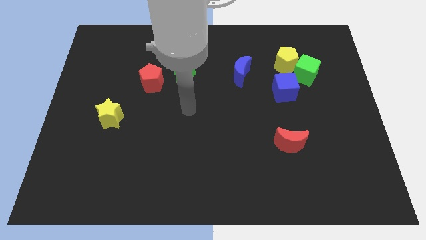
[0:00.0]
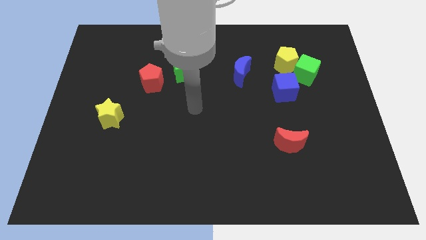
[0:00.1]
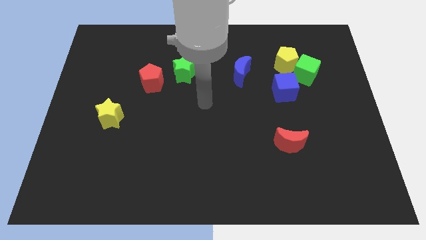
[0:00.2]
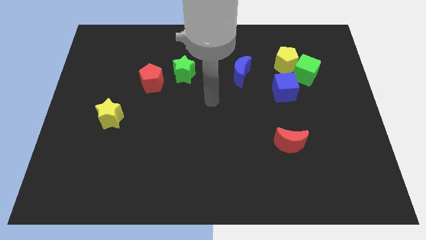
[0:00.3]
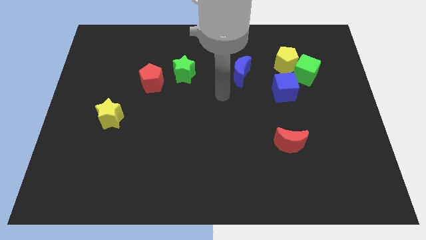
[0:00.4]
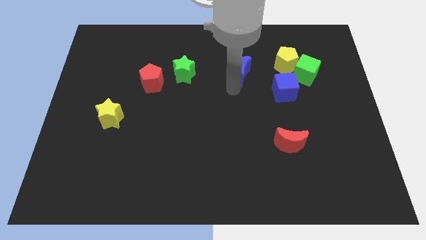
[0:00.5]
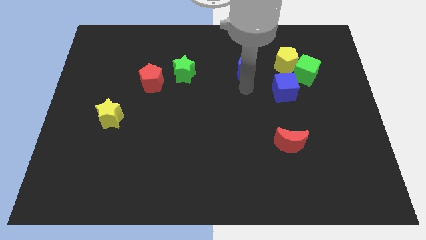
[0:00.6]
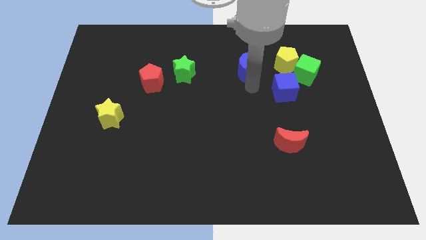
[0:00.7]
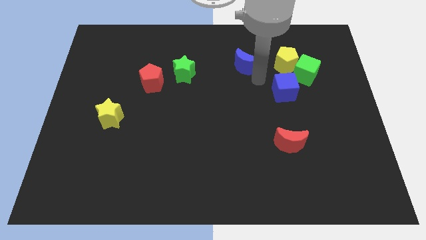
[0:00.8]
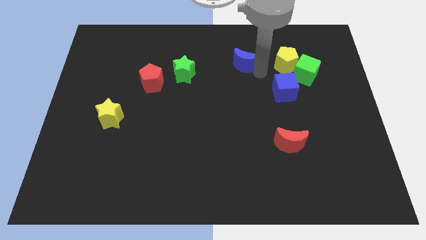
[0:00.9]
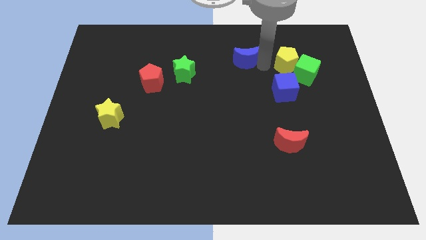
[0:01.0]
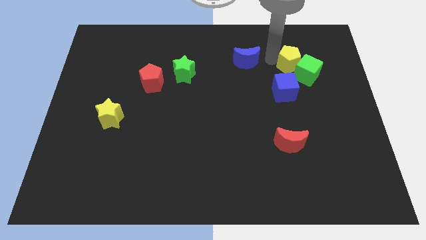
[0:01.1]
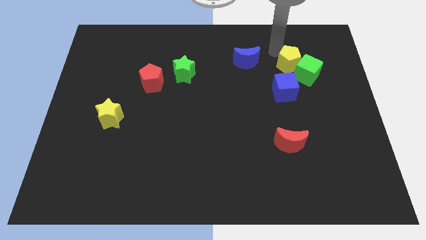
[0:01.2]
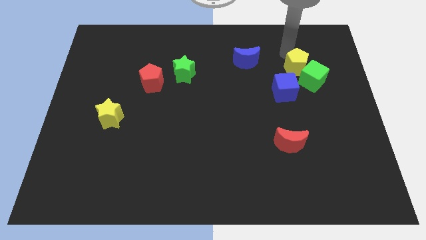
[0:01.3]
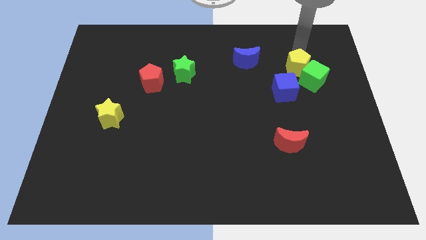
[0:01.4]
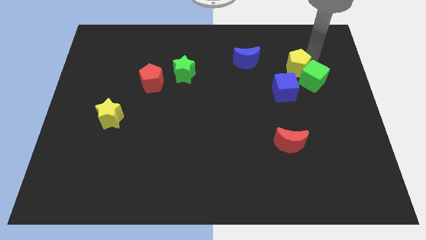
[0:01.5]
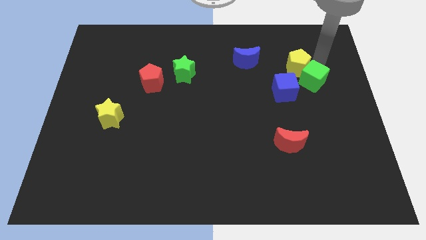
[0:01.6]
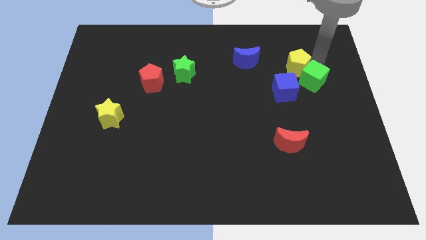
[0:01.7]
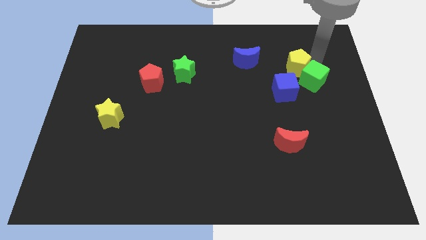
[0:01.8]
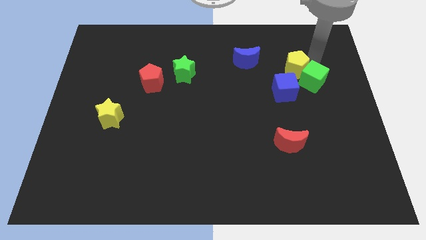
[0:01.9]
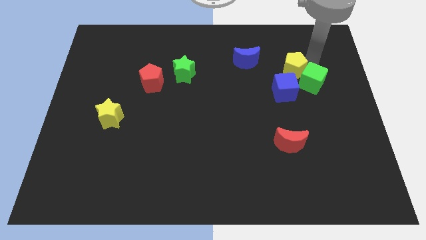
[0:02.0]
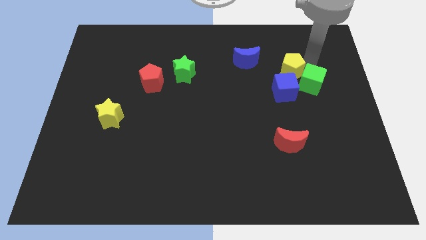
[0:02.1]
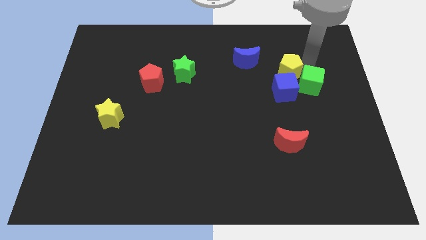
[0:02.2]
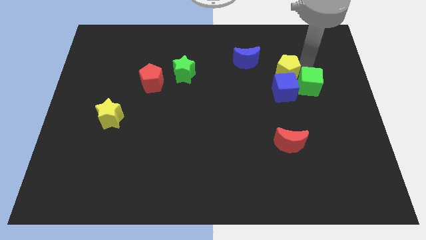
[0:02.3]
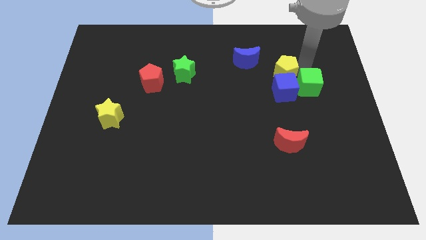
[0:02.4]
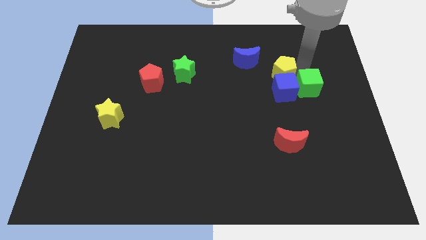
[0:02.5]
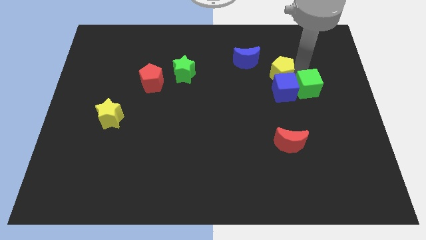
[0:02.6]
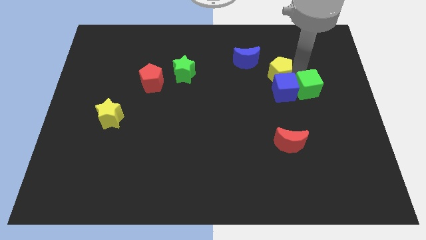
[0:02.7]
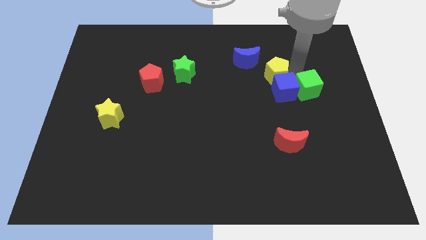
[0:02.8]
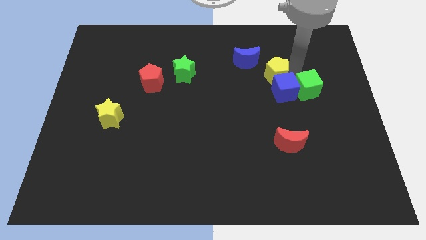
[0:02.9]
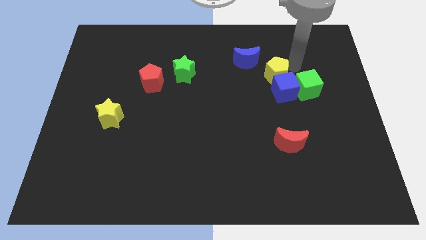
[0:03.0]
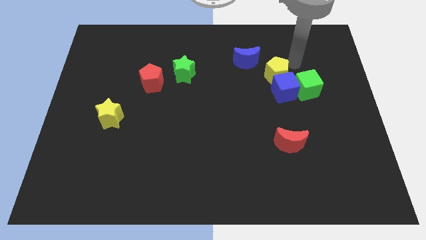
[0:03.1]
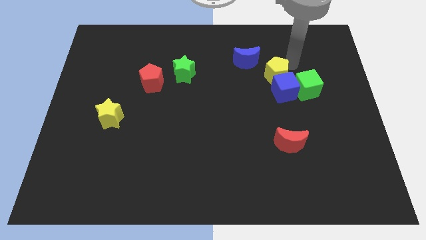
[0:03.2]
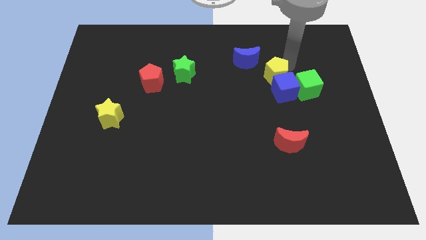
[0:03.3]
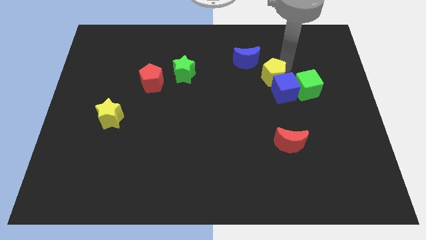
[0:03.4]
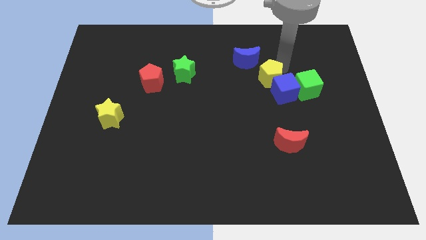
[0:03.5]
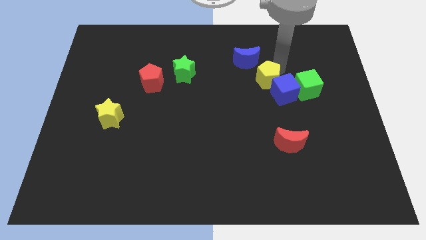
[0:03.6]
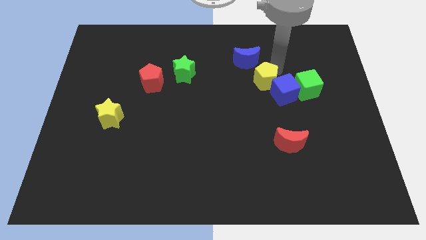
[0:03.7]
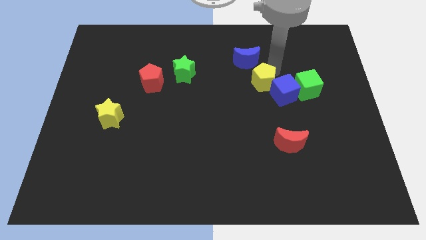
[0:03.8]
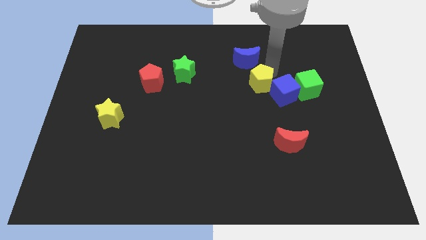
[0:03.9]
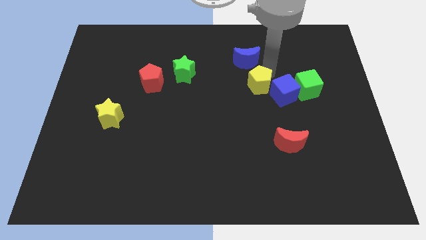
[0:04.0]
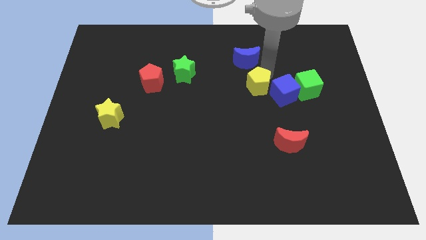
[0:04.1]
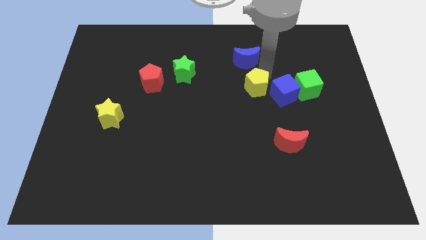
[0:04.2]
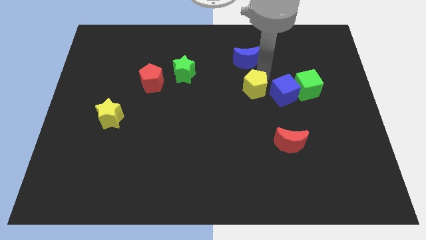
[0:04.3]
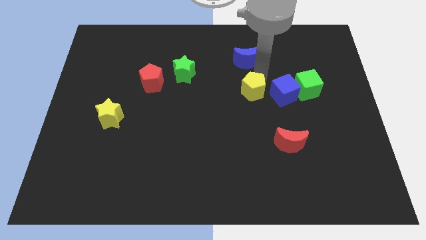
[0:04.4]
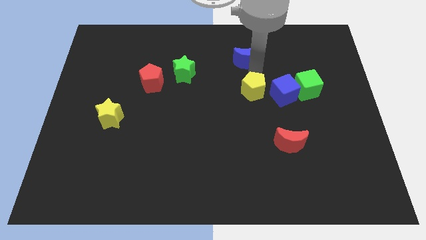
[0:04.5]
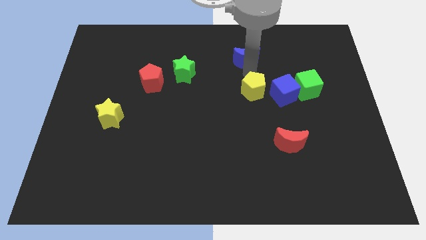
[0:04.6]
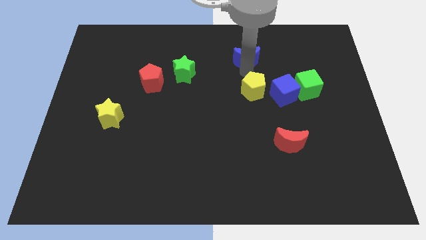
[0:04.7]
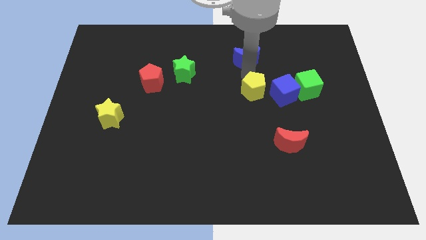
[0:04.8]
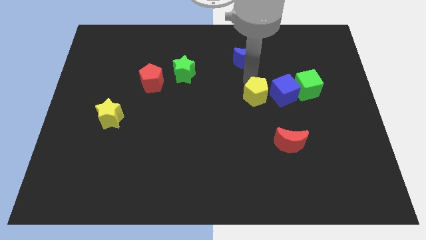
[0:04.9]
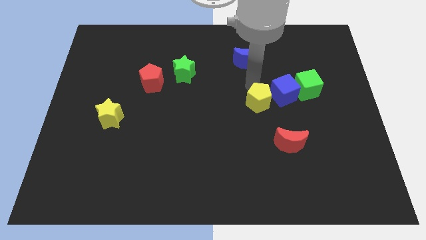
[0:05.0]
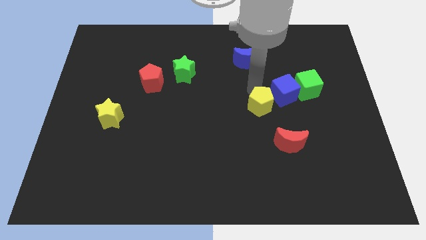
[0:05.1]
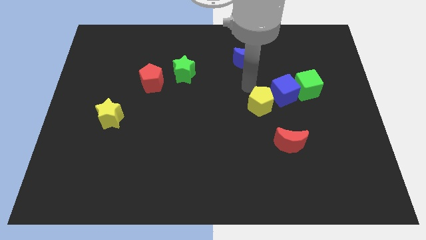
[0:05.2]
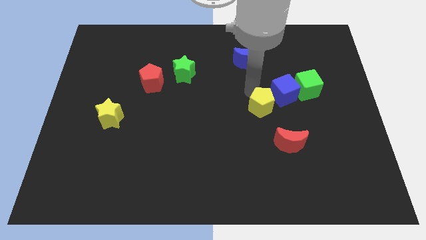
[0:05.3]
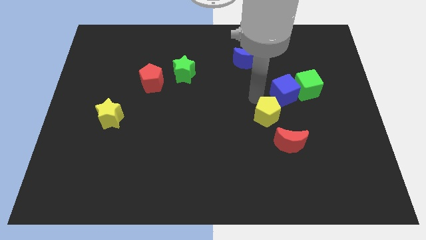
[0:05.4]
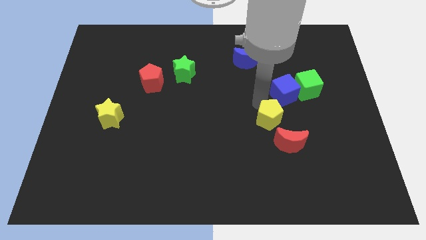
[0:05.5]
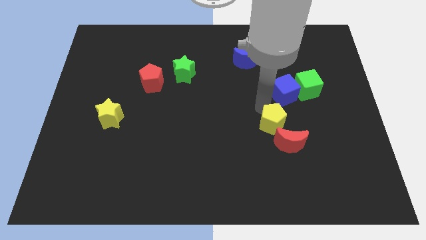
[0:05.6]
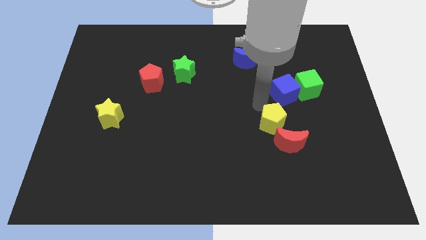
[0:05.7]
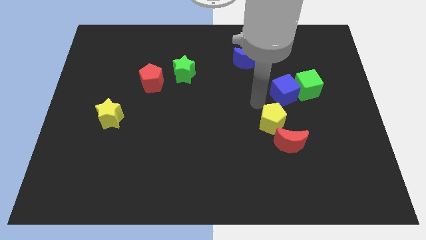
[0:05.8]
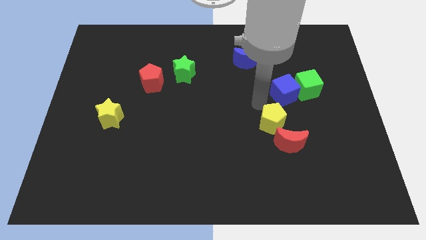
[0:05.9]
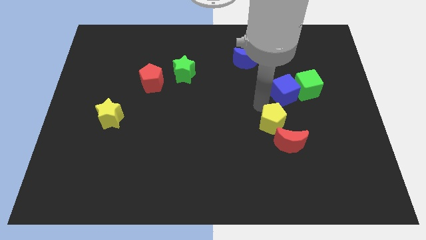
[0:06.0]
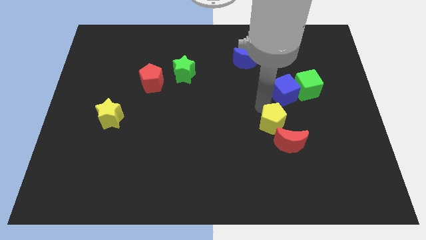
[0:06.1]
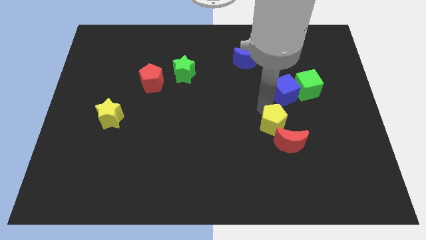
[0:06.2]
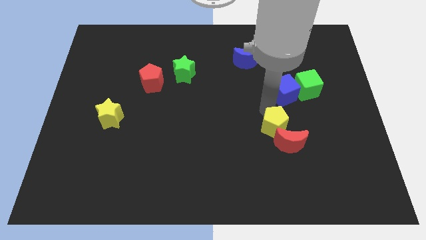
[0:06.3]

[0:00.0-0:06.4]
move the yellow pentagon close to the red moon

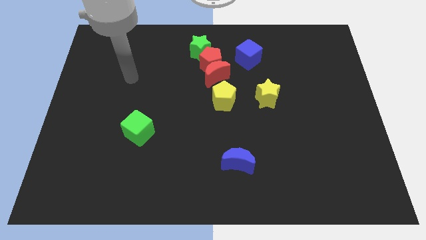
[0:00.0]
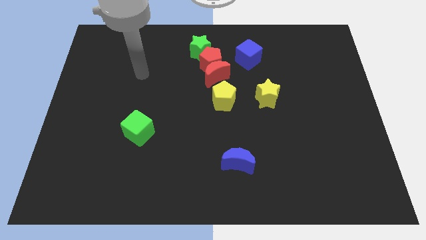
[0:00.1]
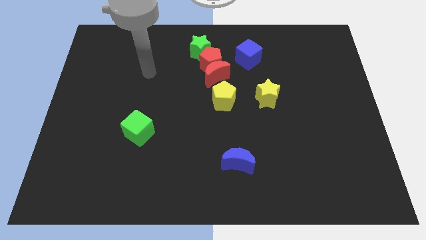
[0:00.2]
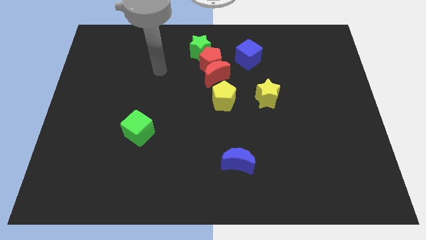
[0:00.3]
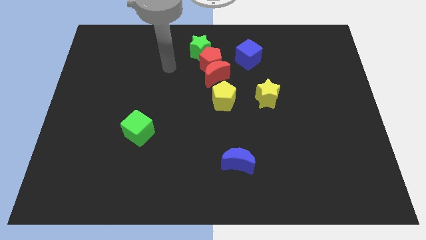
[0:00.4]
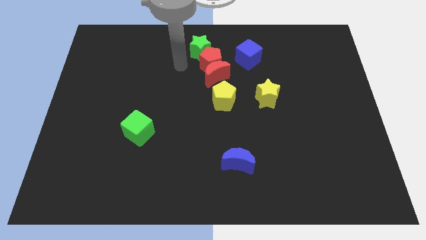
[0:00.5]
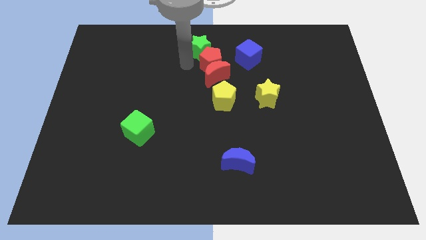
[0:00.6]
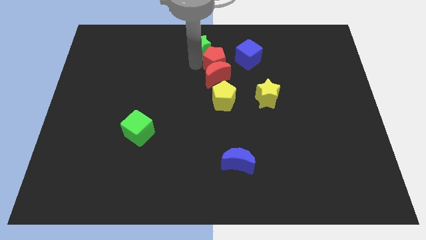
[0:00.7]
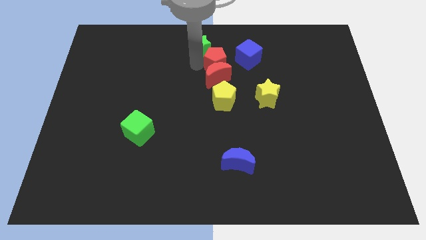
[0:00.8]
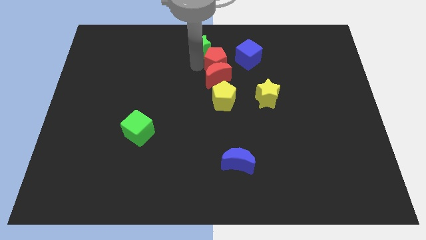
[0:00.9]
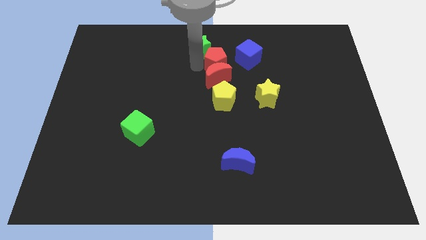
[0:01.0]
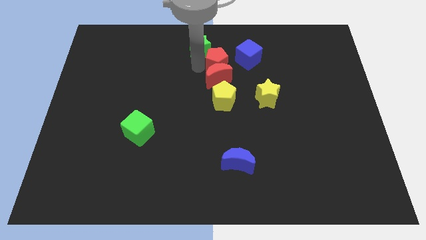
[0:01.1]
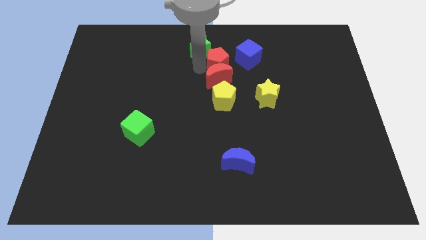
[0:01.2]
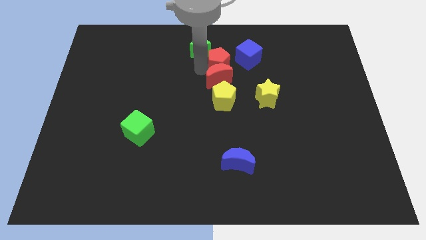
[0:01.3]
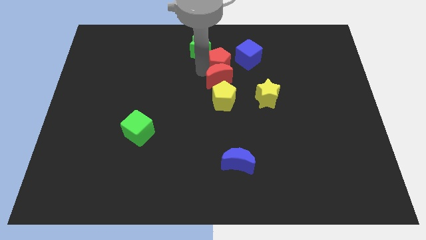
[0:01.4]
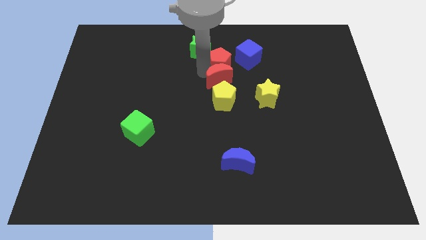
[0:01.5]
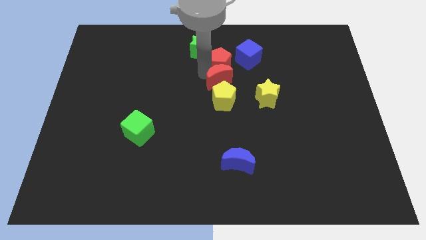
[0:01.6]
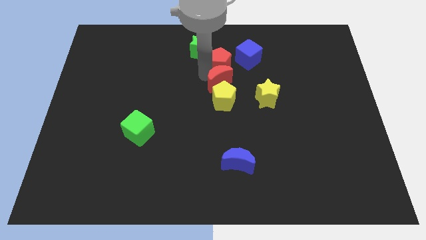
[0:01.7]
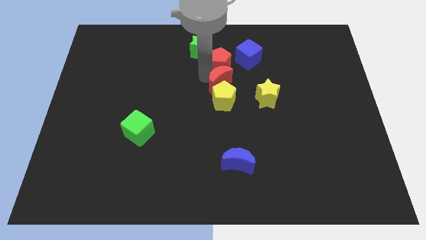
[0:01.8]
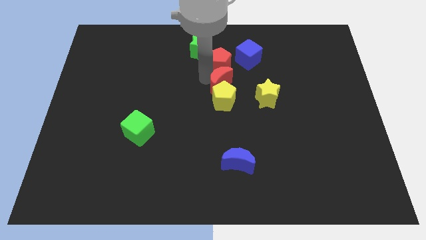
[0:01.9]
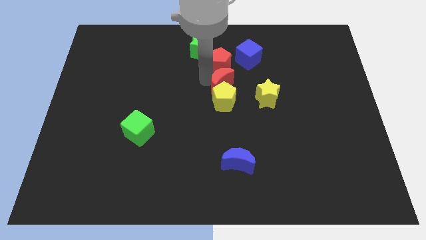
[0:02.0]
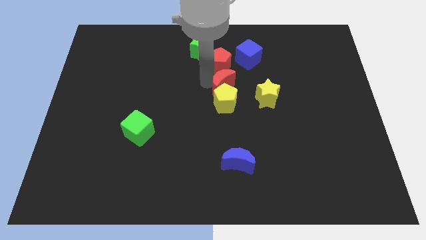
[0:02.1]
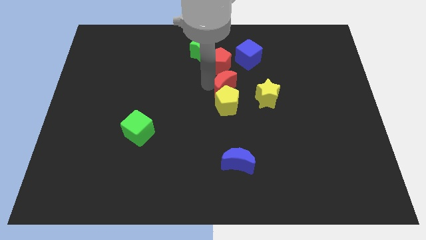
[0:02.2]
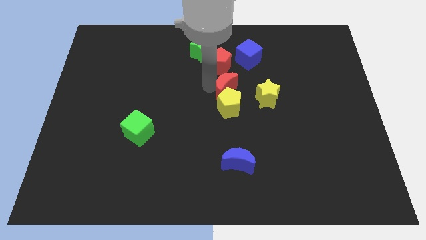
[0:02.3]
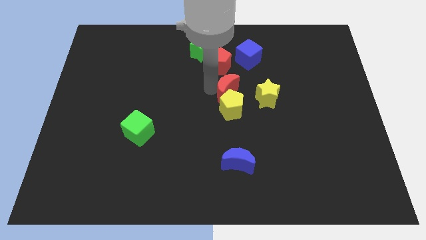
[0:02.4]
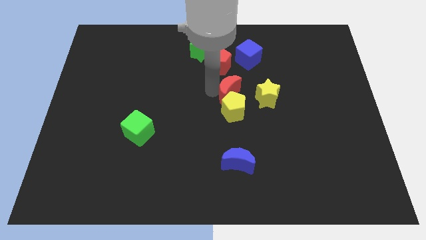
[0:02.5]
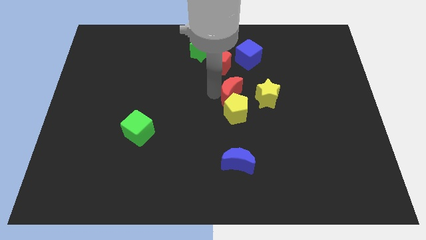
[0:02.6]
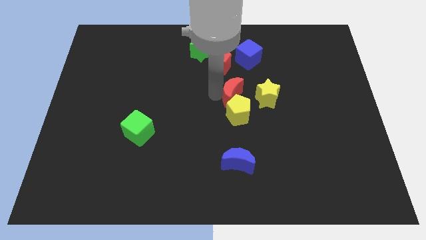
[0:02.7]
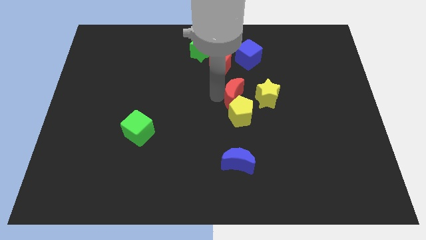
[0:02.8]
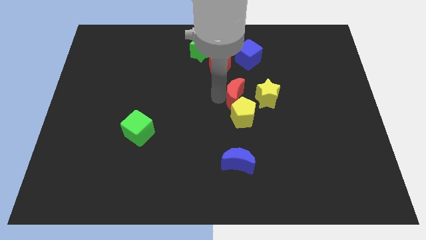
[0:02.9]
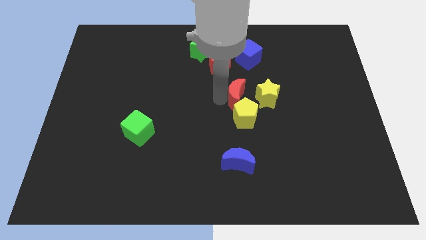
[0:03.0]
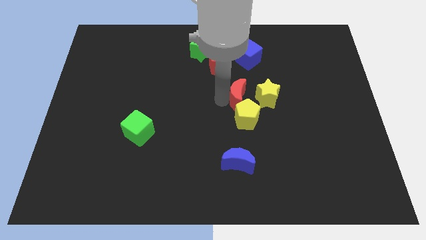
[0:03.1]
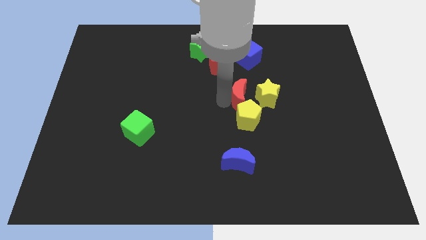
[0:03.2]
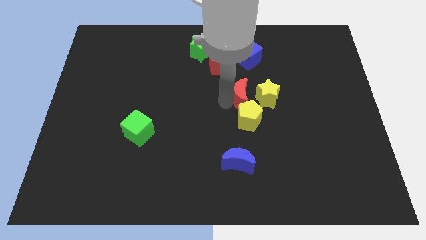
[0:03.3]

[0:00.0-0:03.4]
put the red moon next to the yellow star
